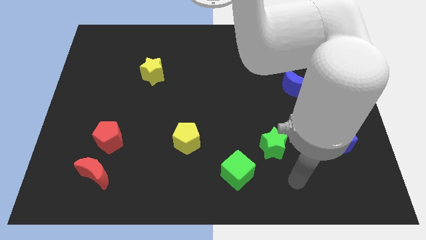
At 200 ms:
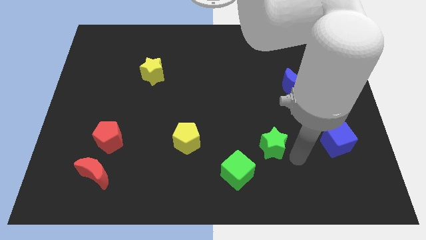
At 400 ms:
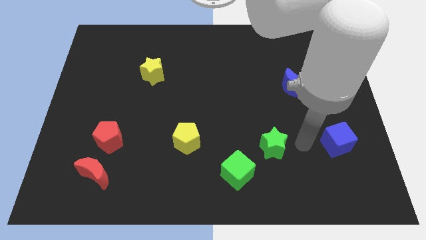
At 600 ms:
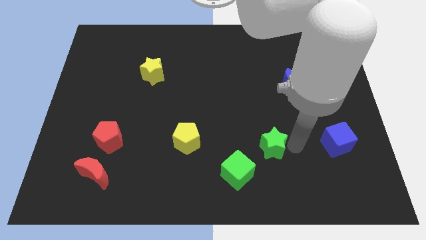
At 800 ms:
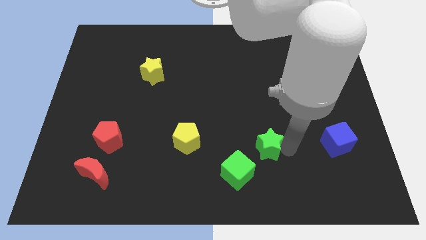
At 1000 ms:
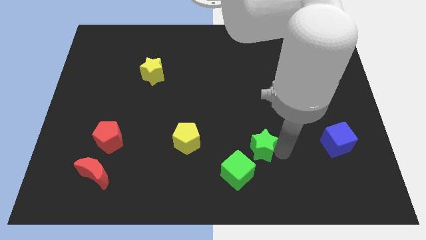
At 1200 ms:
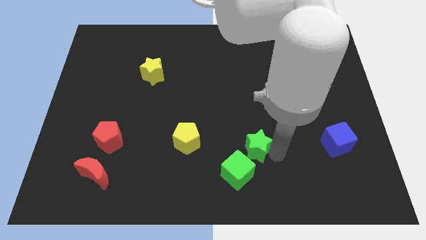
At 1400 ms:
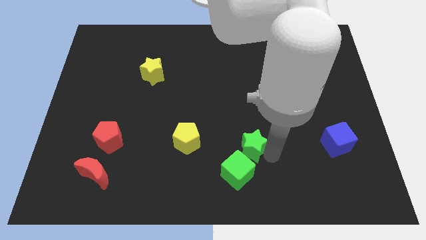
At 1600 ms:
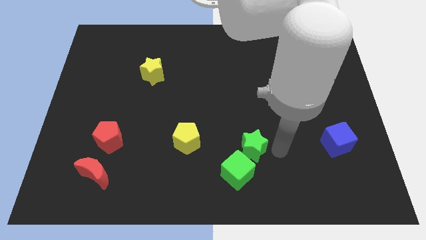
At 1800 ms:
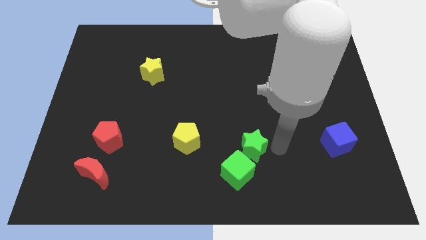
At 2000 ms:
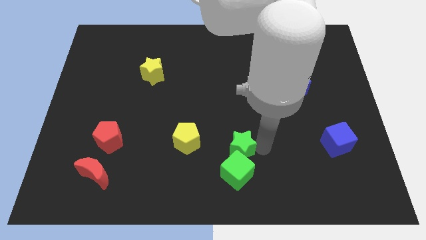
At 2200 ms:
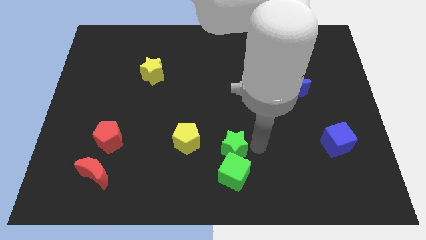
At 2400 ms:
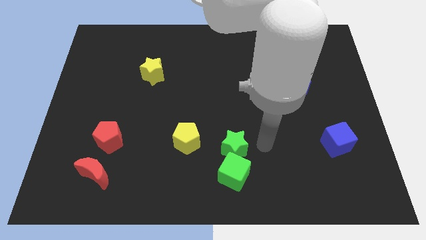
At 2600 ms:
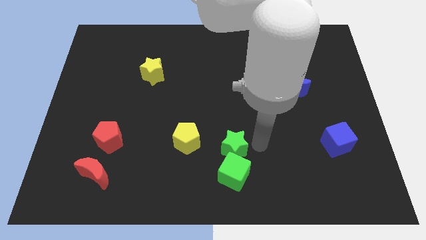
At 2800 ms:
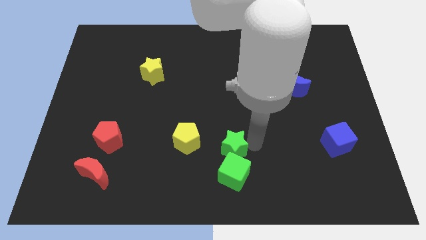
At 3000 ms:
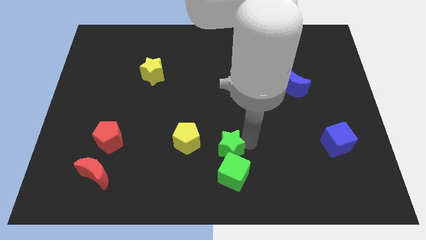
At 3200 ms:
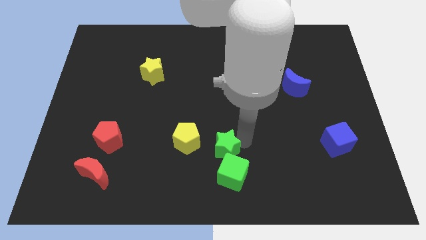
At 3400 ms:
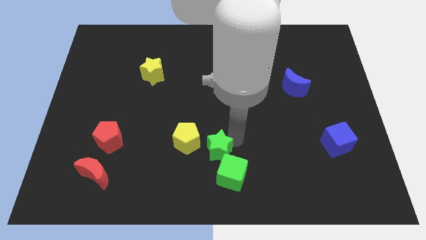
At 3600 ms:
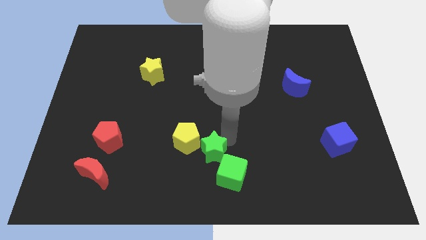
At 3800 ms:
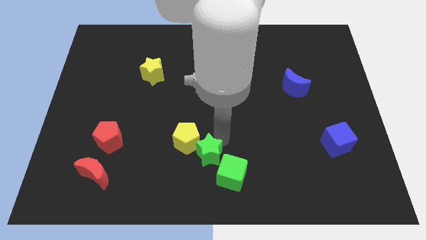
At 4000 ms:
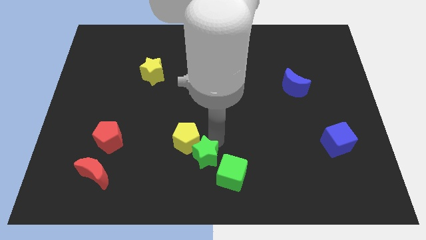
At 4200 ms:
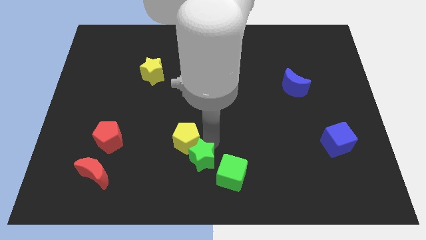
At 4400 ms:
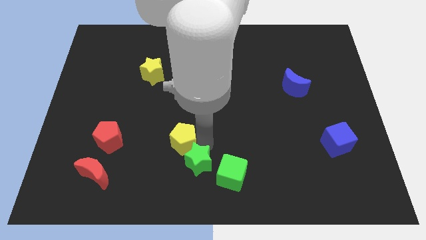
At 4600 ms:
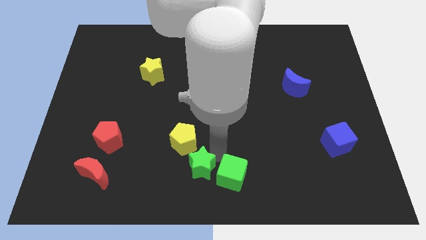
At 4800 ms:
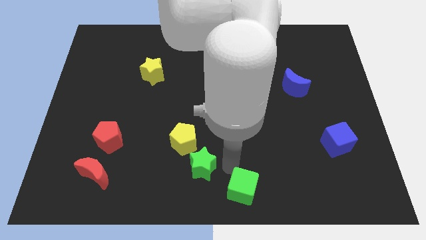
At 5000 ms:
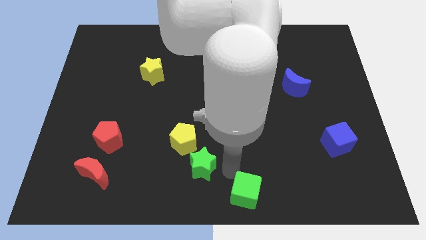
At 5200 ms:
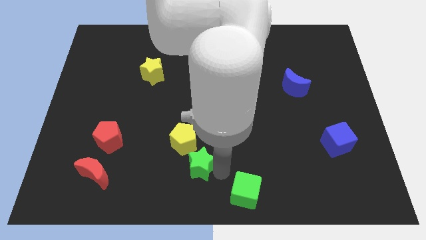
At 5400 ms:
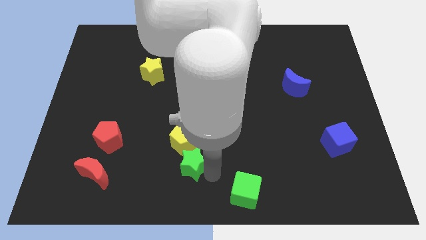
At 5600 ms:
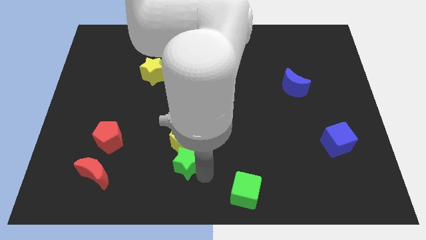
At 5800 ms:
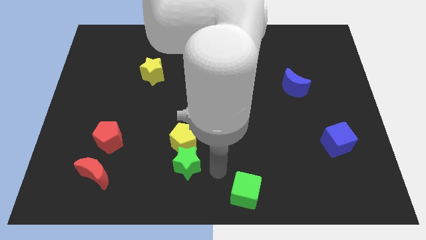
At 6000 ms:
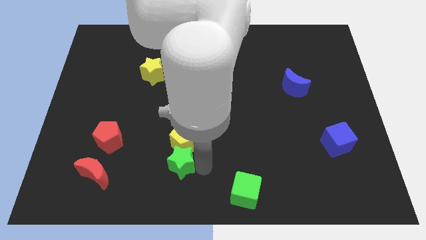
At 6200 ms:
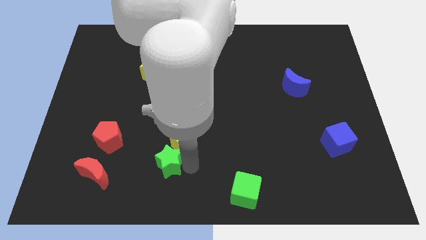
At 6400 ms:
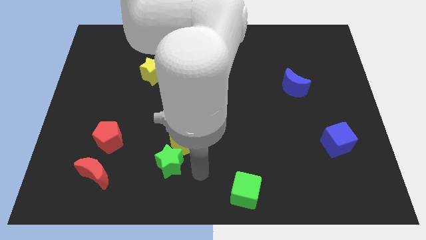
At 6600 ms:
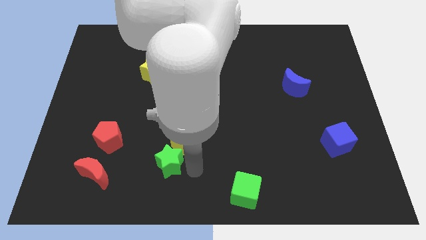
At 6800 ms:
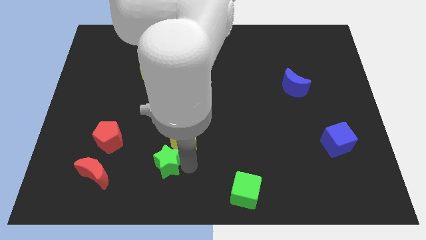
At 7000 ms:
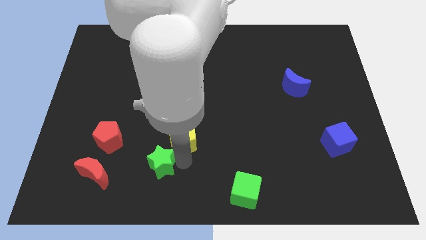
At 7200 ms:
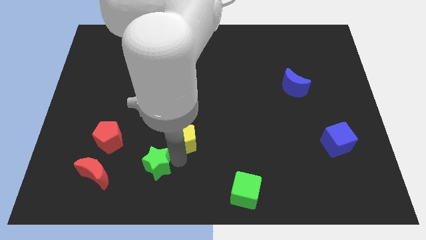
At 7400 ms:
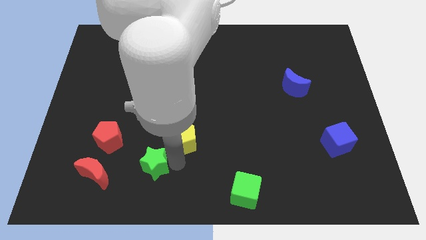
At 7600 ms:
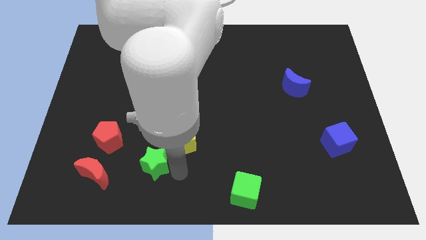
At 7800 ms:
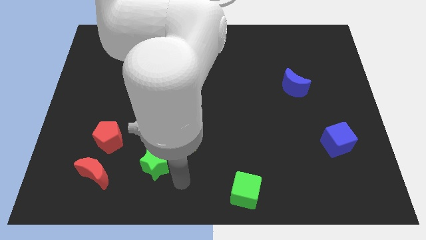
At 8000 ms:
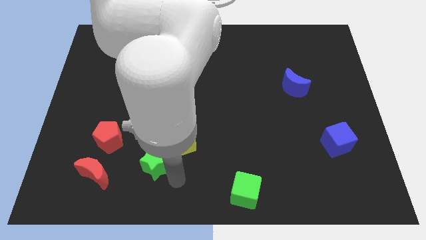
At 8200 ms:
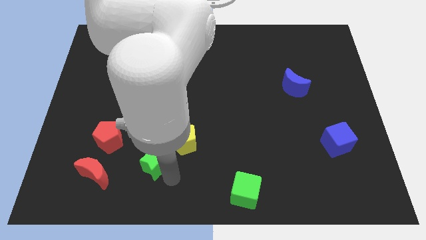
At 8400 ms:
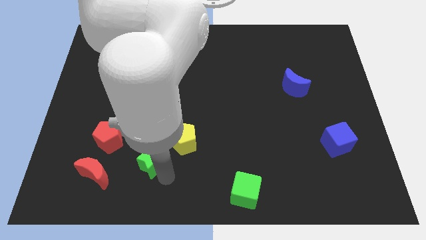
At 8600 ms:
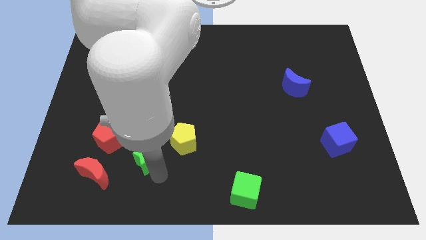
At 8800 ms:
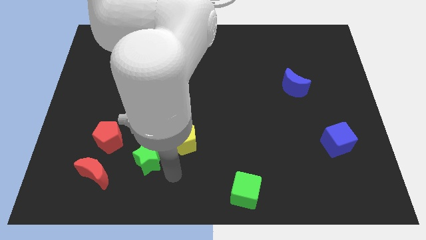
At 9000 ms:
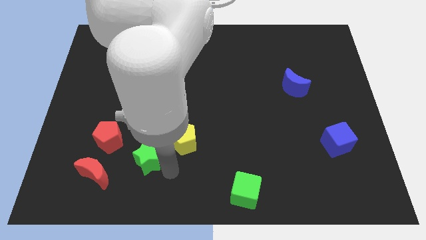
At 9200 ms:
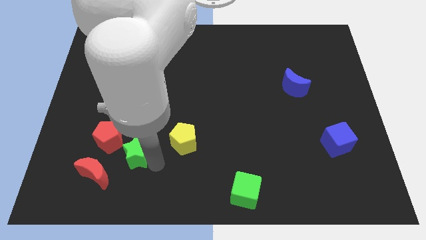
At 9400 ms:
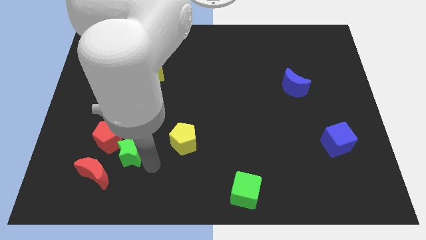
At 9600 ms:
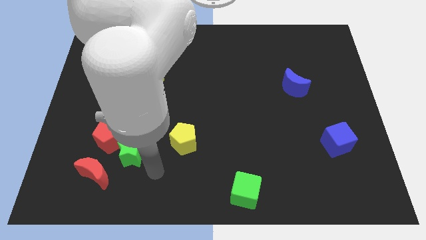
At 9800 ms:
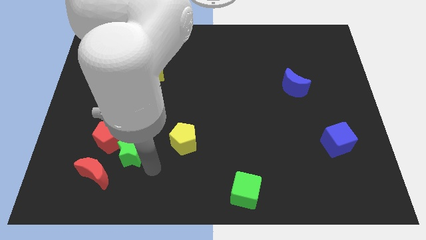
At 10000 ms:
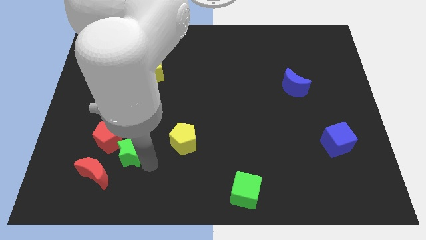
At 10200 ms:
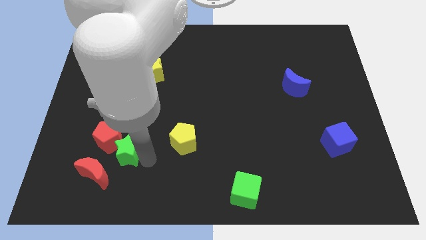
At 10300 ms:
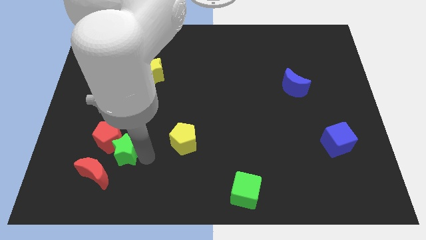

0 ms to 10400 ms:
push the green star to the red pentagon

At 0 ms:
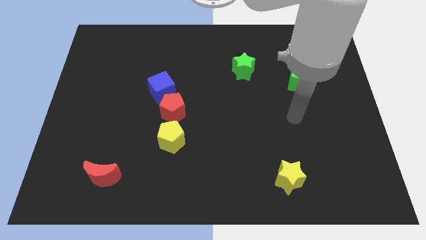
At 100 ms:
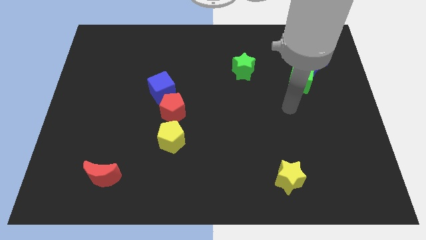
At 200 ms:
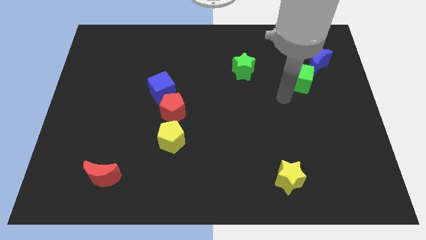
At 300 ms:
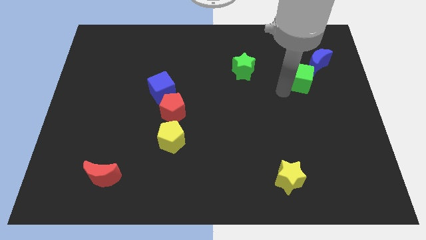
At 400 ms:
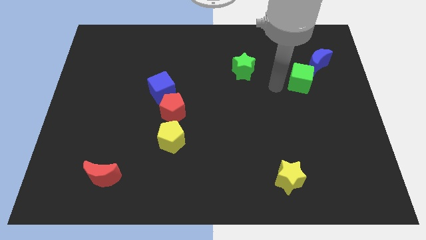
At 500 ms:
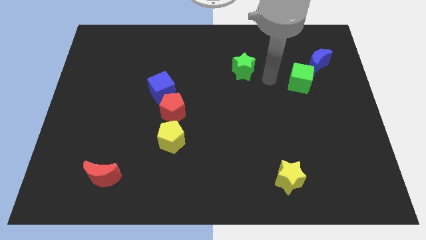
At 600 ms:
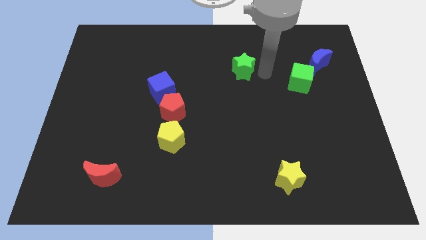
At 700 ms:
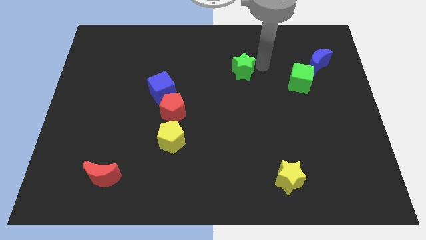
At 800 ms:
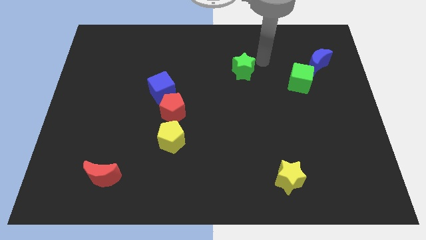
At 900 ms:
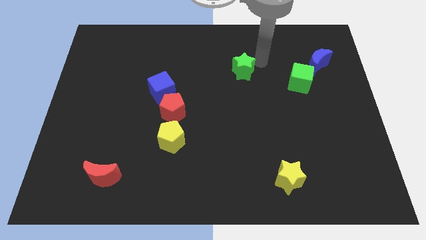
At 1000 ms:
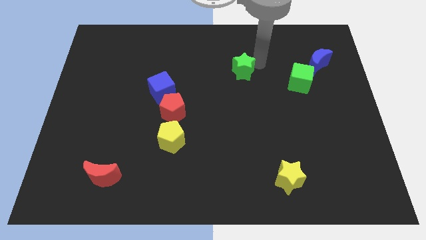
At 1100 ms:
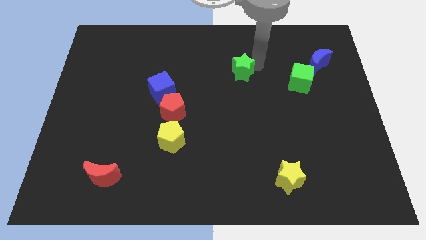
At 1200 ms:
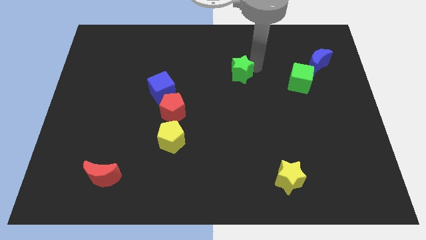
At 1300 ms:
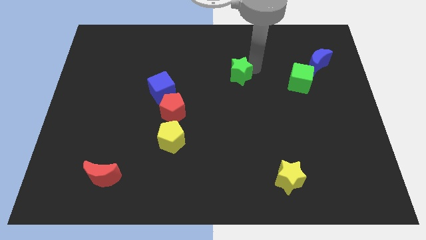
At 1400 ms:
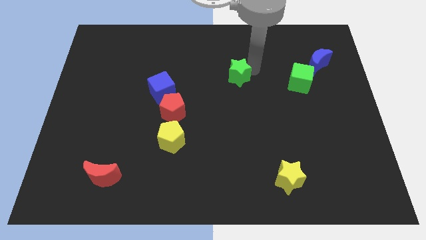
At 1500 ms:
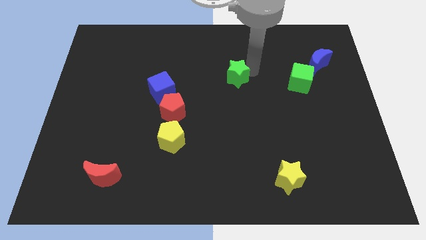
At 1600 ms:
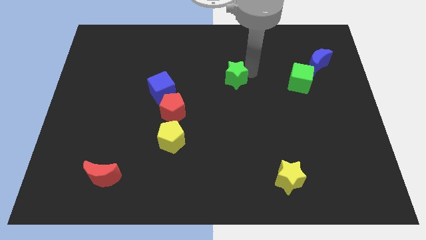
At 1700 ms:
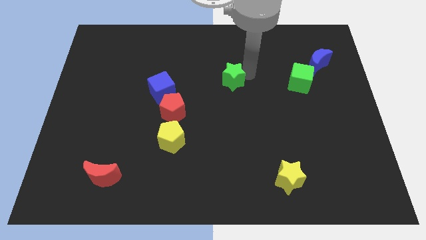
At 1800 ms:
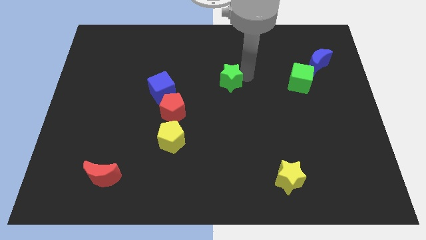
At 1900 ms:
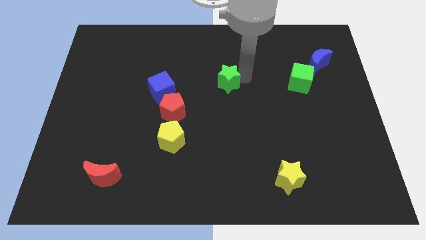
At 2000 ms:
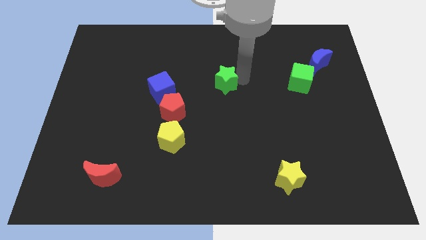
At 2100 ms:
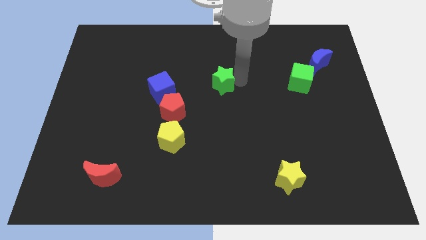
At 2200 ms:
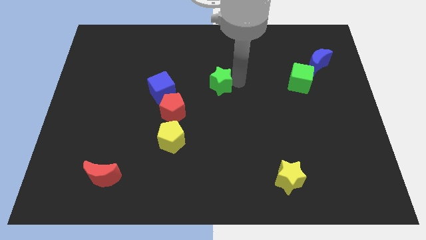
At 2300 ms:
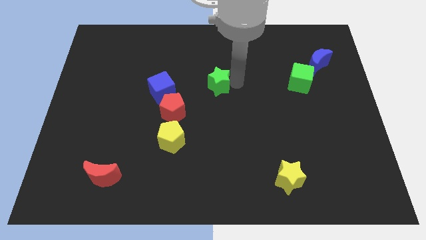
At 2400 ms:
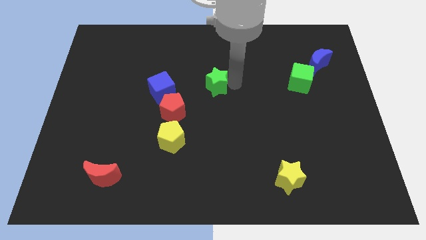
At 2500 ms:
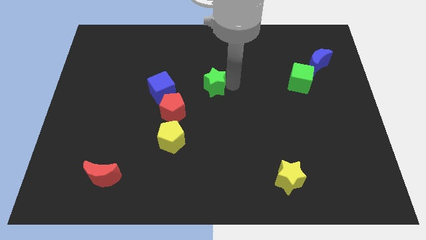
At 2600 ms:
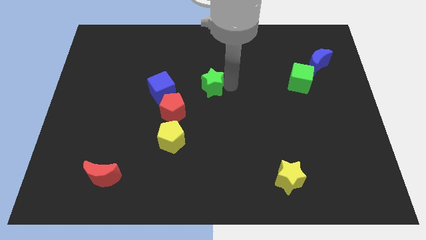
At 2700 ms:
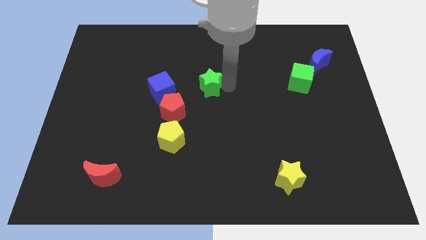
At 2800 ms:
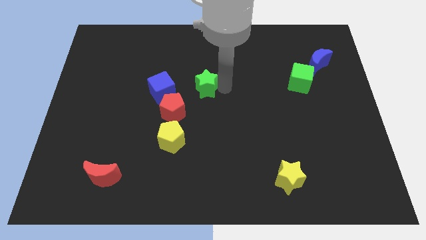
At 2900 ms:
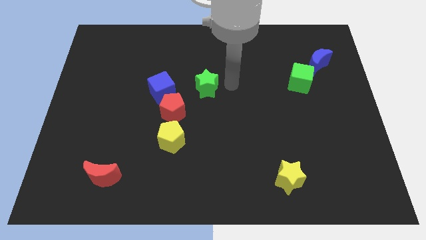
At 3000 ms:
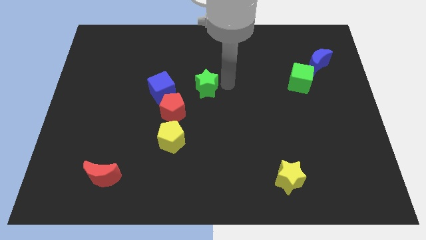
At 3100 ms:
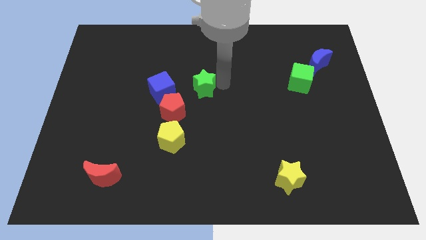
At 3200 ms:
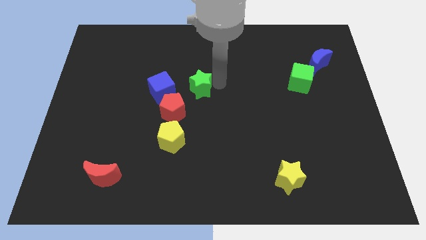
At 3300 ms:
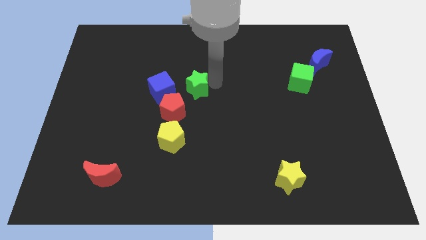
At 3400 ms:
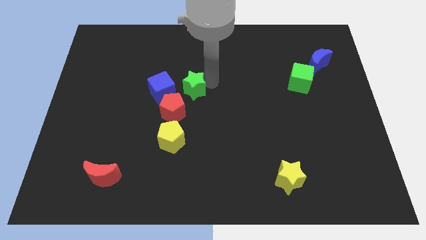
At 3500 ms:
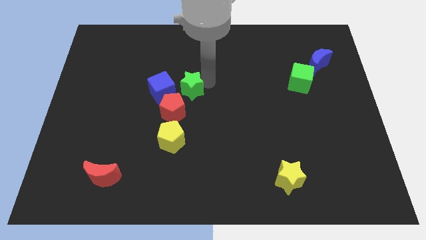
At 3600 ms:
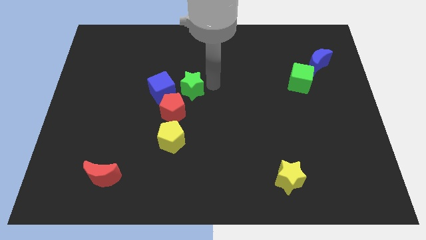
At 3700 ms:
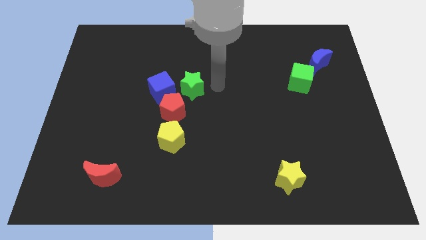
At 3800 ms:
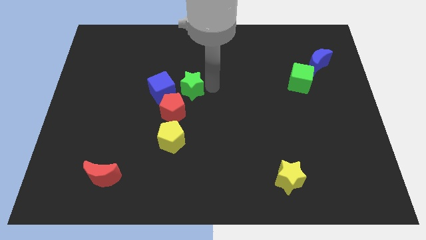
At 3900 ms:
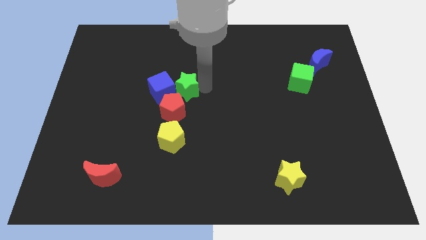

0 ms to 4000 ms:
move the green star to the blue cube
